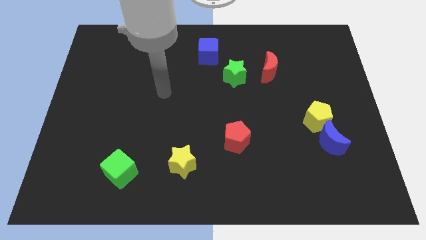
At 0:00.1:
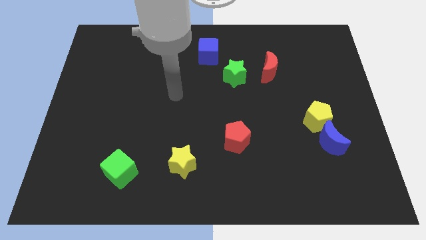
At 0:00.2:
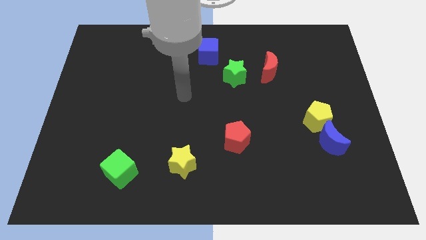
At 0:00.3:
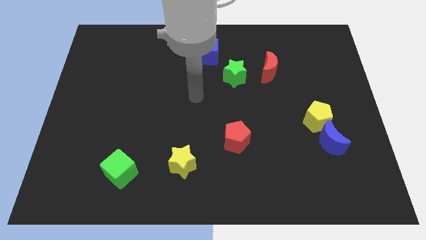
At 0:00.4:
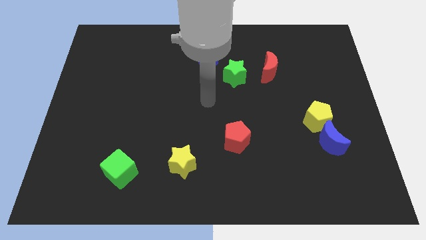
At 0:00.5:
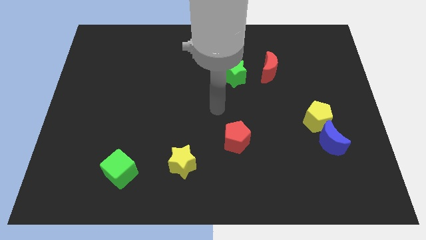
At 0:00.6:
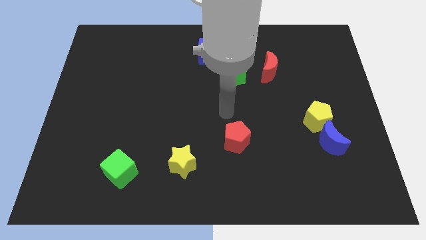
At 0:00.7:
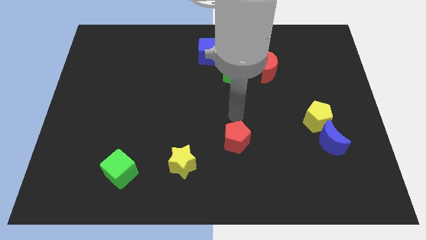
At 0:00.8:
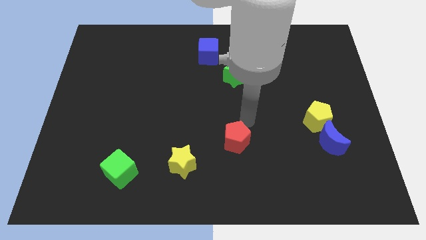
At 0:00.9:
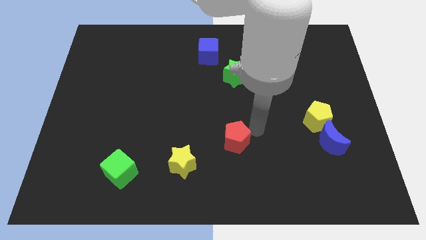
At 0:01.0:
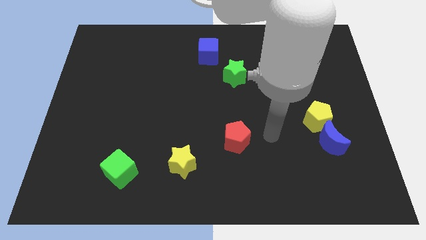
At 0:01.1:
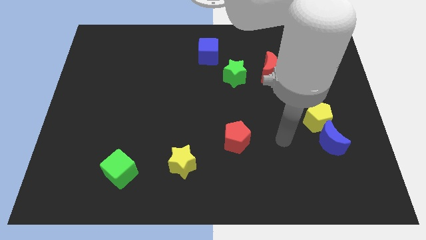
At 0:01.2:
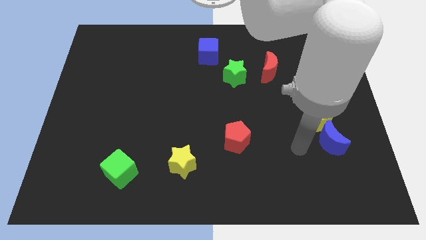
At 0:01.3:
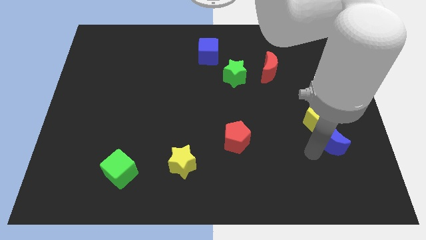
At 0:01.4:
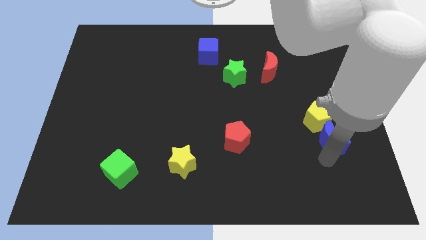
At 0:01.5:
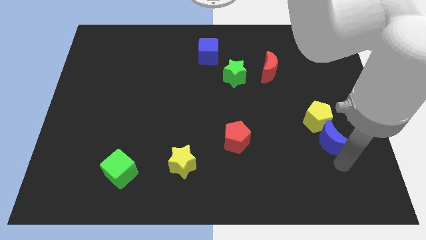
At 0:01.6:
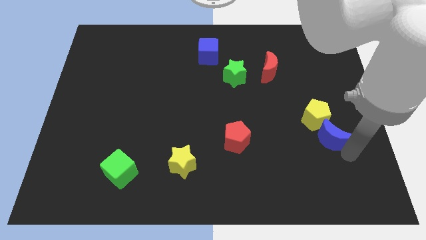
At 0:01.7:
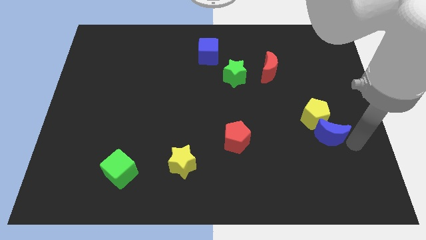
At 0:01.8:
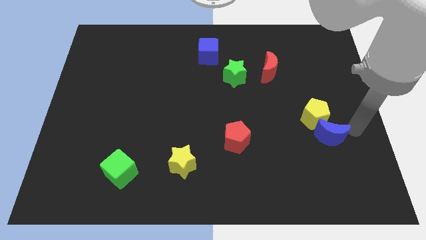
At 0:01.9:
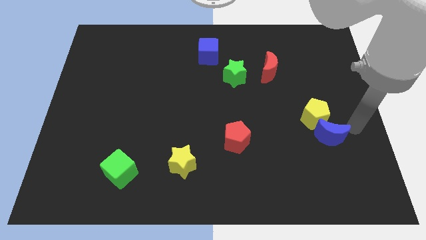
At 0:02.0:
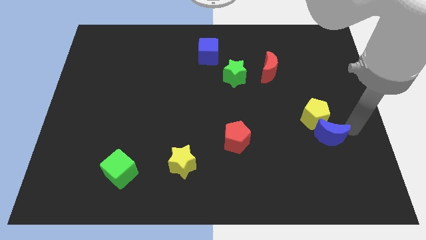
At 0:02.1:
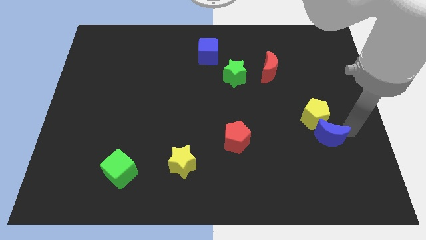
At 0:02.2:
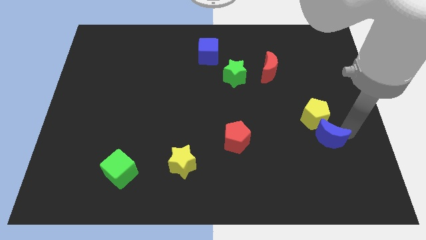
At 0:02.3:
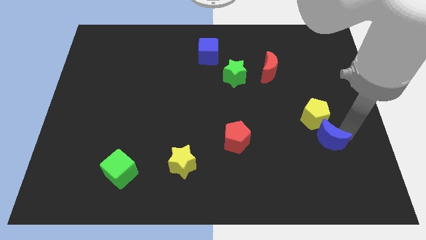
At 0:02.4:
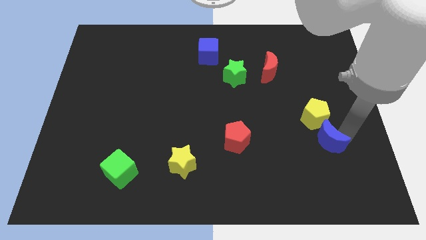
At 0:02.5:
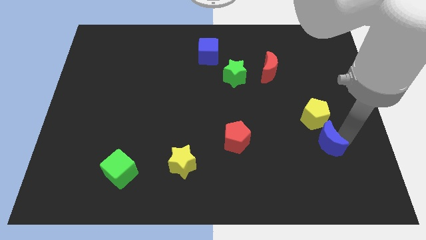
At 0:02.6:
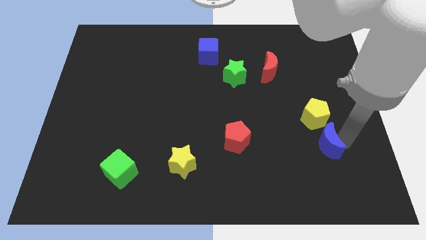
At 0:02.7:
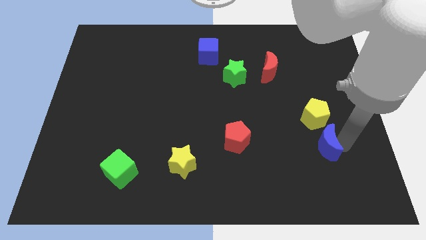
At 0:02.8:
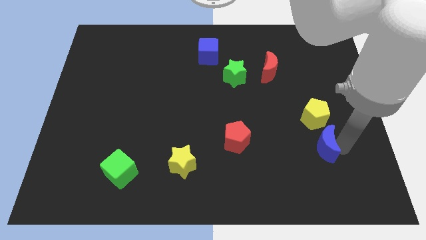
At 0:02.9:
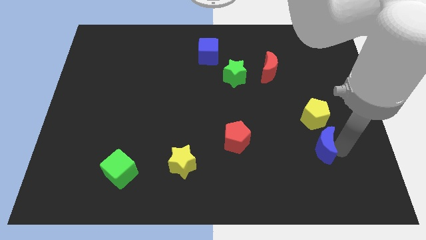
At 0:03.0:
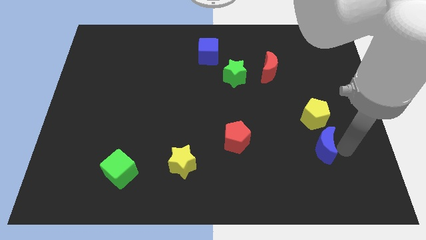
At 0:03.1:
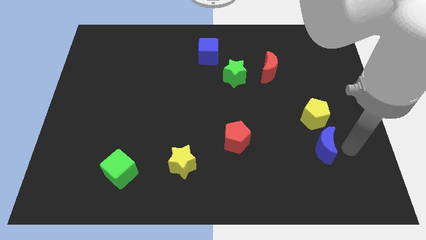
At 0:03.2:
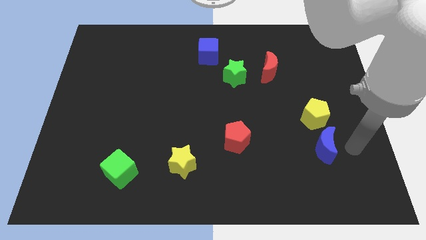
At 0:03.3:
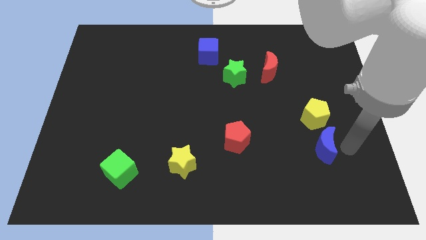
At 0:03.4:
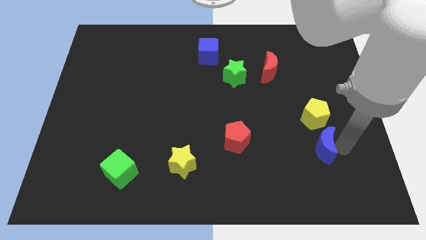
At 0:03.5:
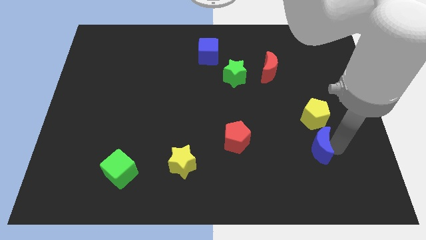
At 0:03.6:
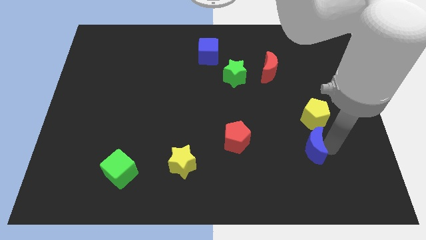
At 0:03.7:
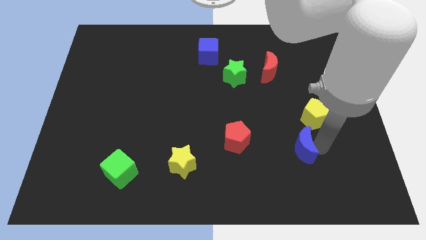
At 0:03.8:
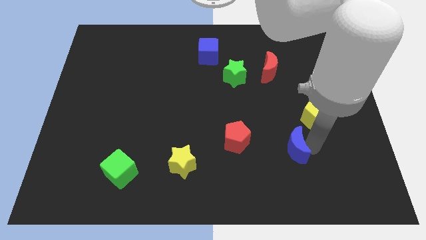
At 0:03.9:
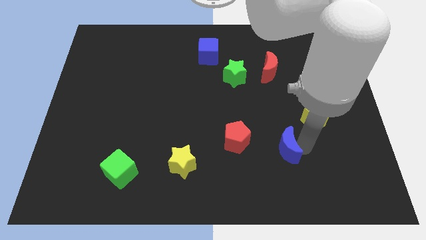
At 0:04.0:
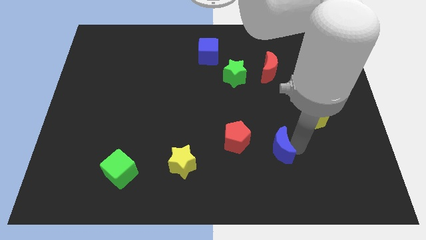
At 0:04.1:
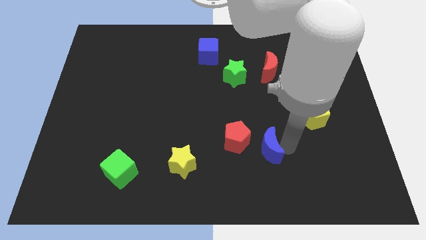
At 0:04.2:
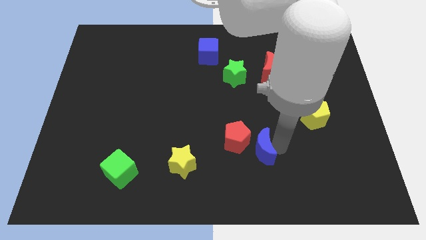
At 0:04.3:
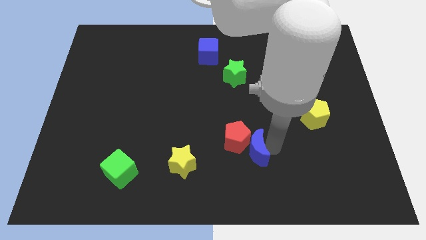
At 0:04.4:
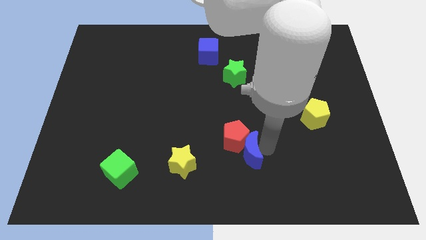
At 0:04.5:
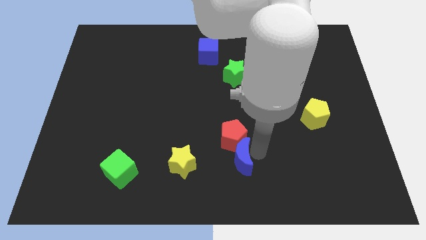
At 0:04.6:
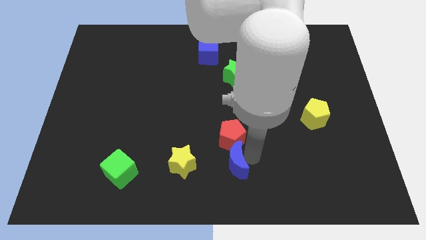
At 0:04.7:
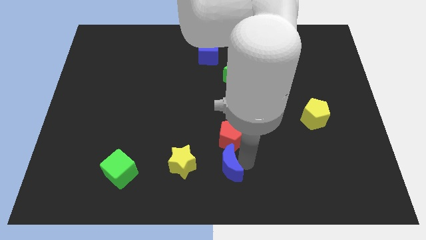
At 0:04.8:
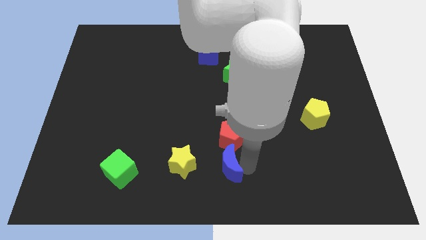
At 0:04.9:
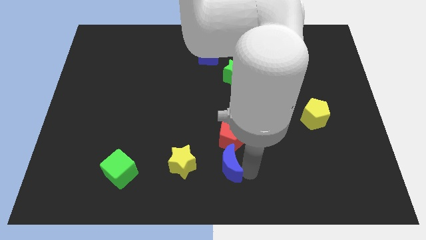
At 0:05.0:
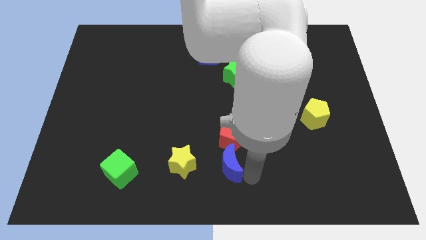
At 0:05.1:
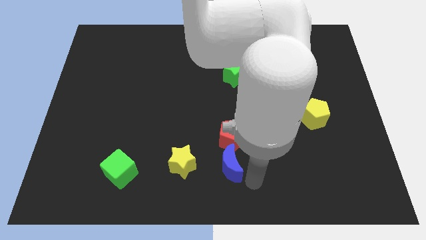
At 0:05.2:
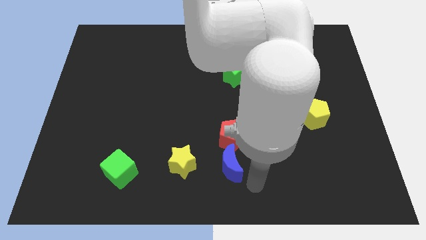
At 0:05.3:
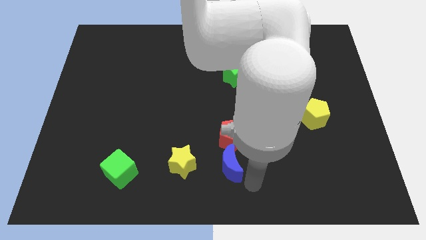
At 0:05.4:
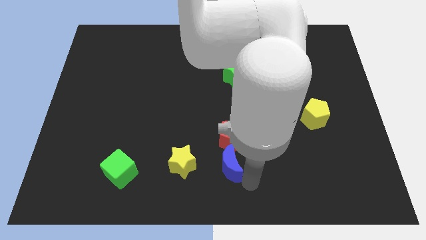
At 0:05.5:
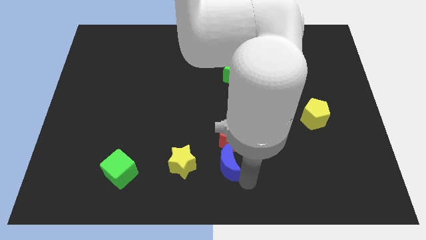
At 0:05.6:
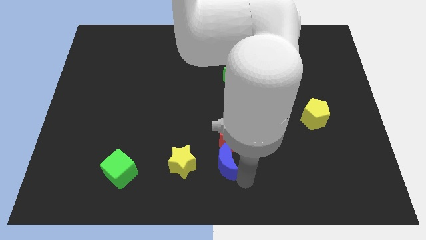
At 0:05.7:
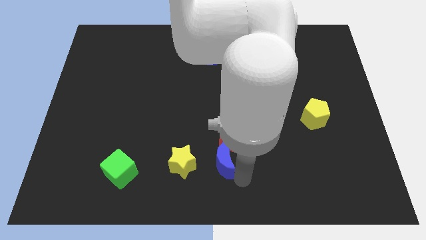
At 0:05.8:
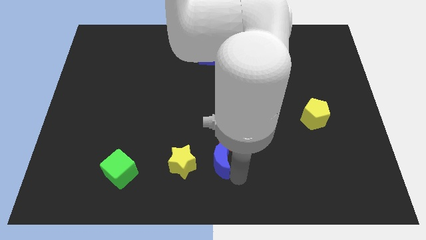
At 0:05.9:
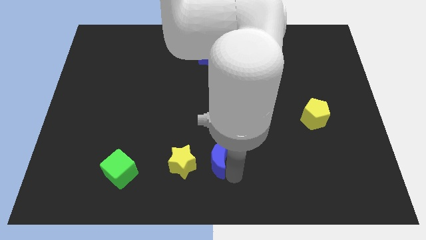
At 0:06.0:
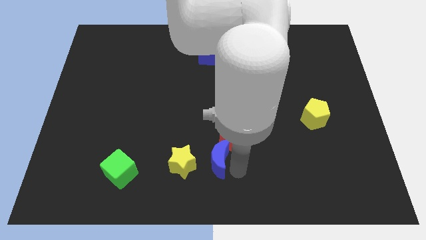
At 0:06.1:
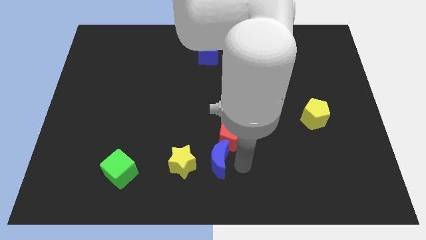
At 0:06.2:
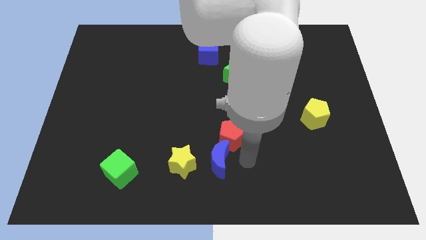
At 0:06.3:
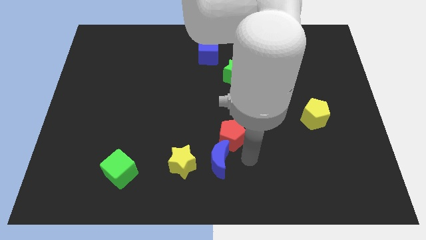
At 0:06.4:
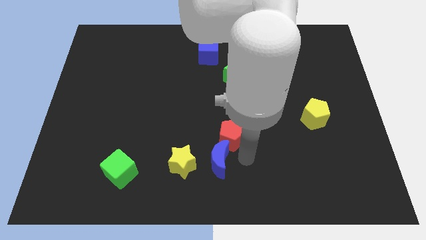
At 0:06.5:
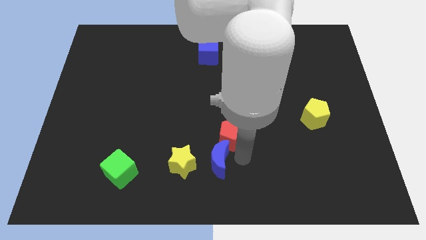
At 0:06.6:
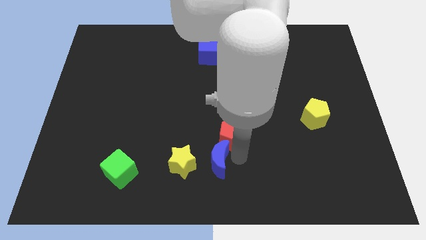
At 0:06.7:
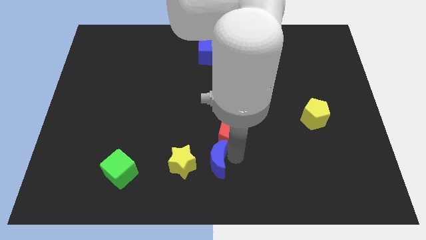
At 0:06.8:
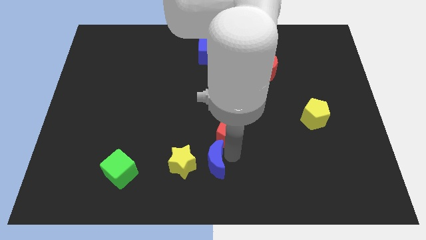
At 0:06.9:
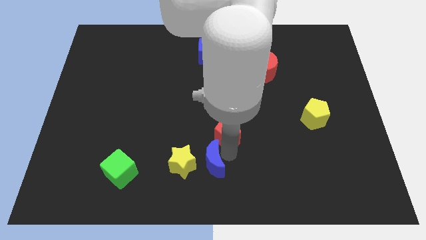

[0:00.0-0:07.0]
push the blue moon close to the yellow star
